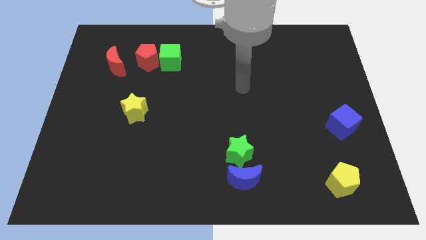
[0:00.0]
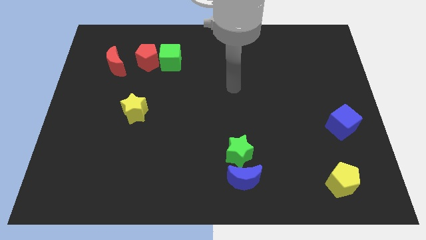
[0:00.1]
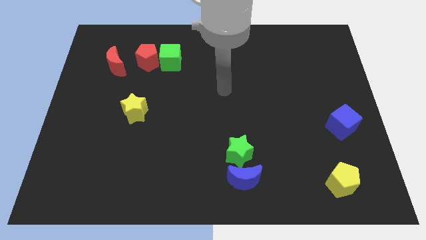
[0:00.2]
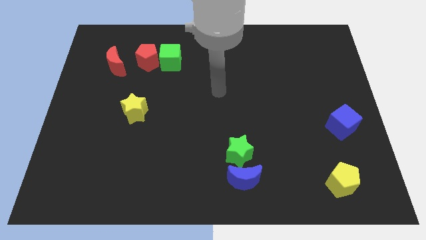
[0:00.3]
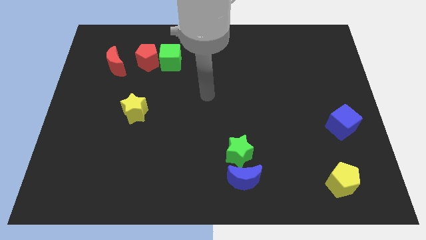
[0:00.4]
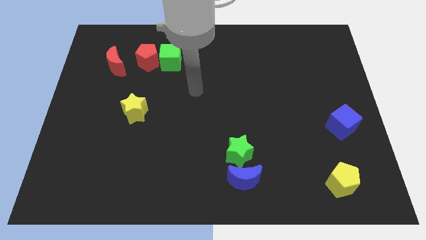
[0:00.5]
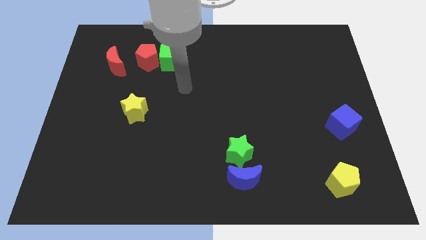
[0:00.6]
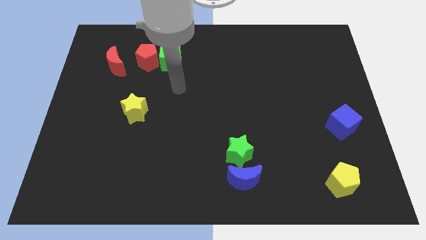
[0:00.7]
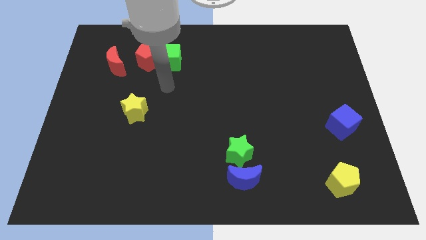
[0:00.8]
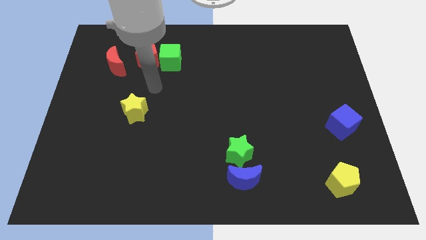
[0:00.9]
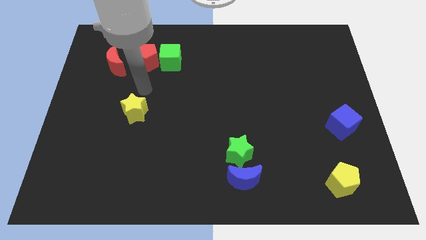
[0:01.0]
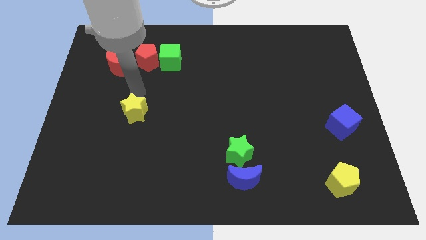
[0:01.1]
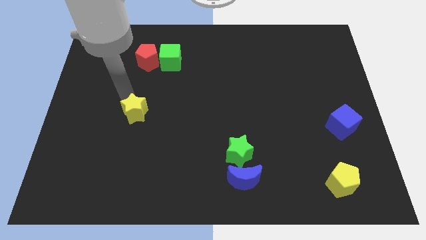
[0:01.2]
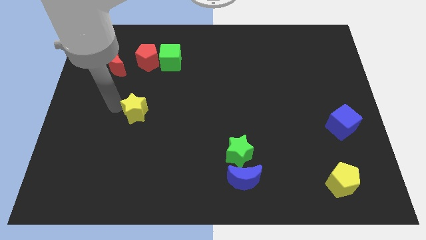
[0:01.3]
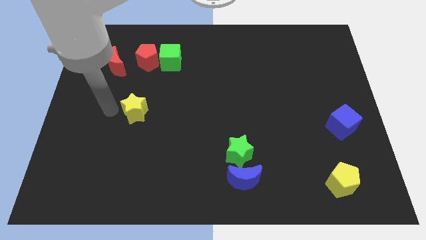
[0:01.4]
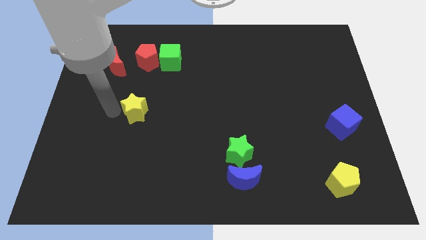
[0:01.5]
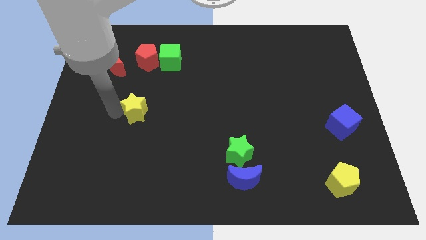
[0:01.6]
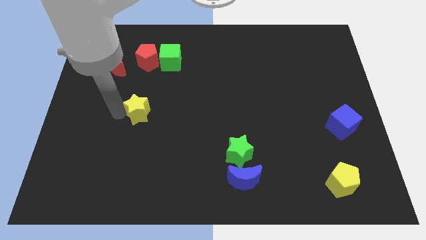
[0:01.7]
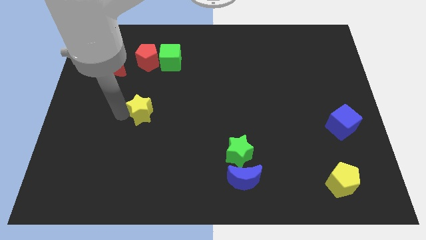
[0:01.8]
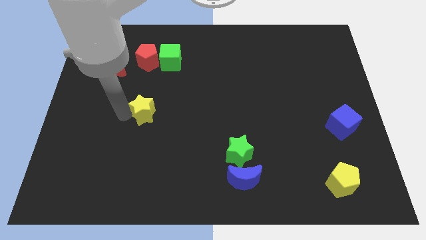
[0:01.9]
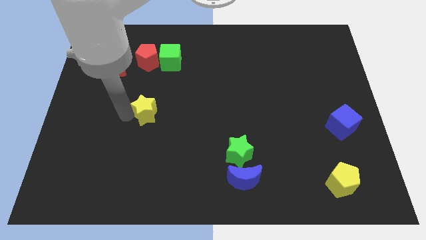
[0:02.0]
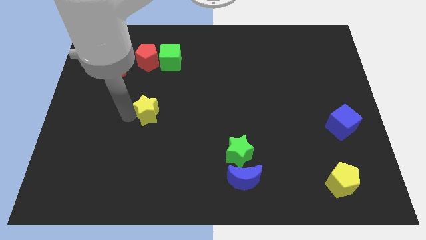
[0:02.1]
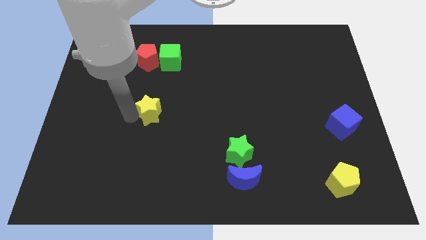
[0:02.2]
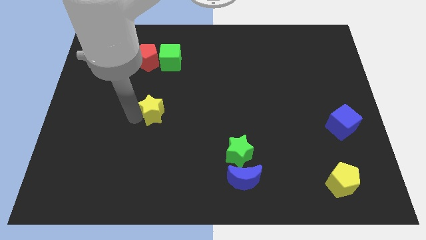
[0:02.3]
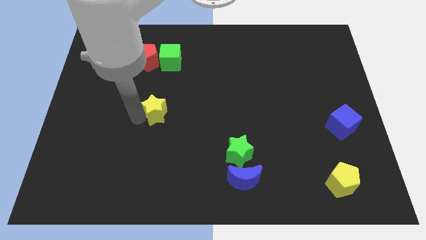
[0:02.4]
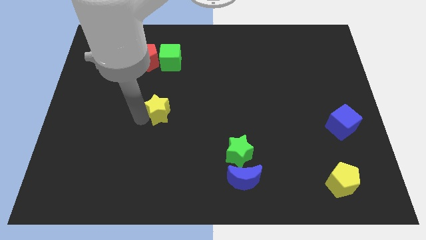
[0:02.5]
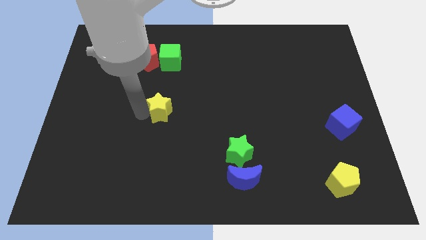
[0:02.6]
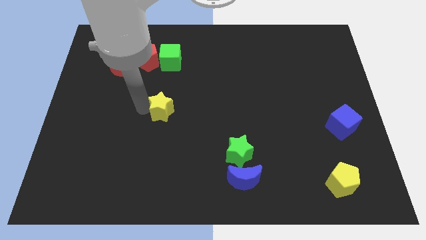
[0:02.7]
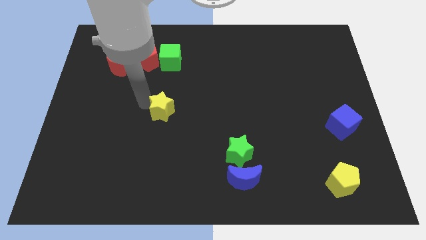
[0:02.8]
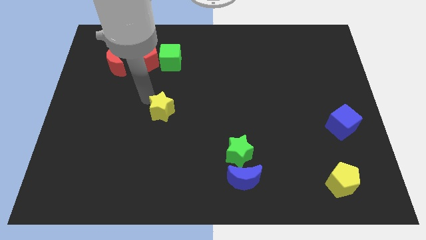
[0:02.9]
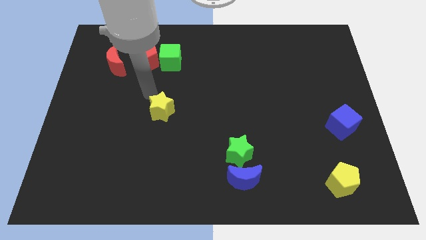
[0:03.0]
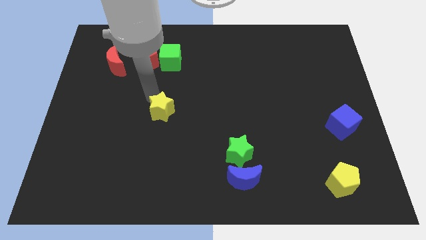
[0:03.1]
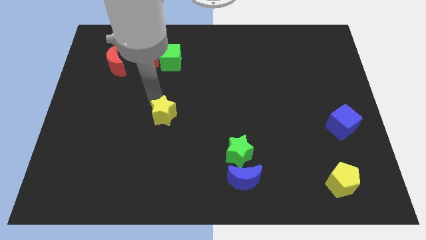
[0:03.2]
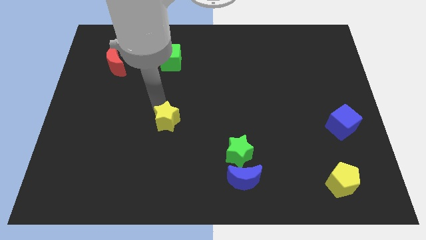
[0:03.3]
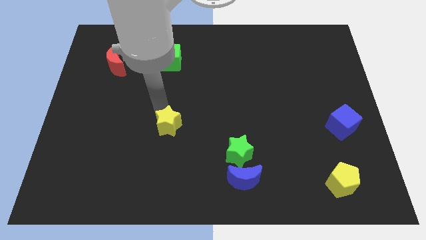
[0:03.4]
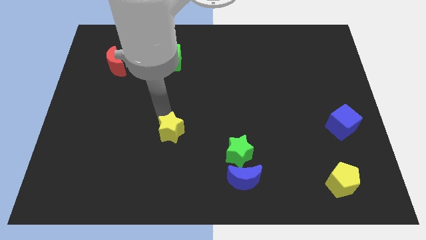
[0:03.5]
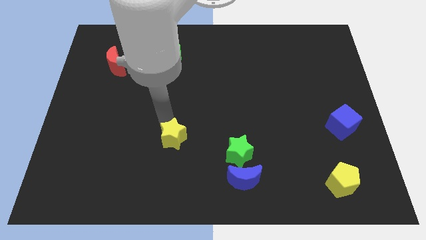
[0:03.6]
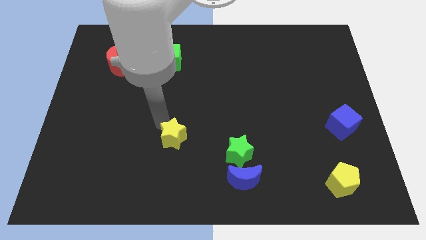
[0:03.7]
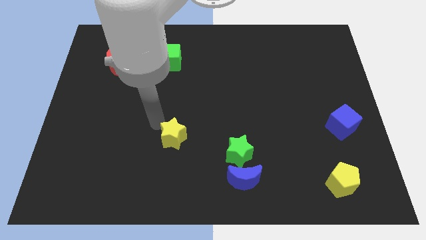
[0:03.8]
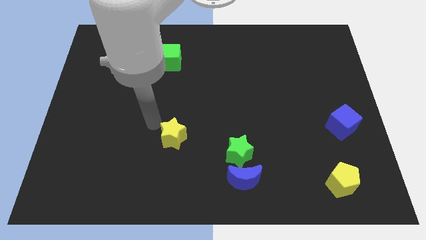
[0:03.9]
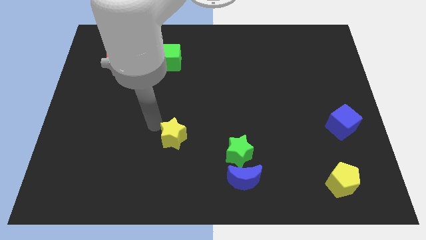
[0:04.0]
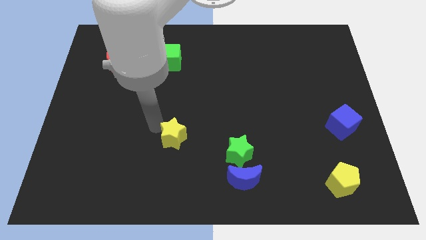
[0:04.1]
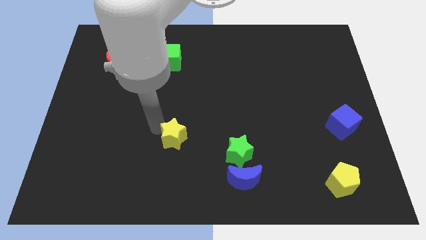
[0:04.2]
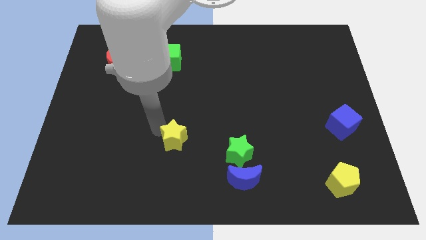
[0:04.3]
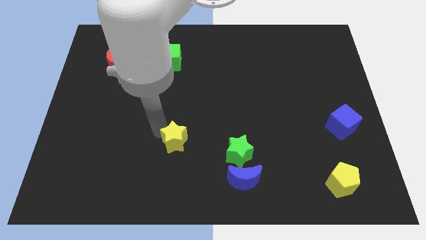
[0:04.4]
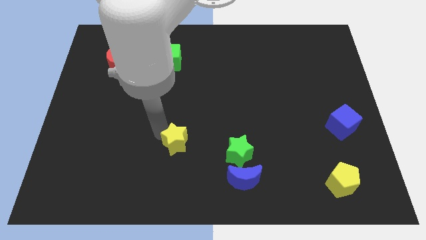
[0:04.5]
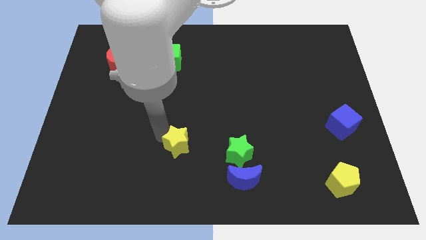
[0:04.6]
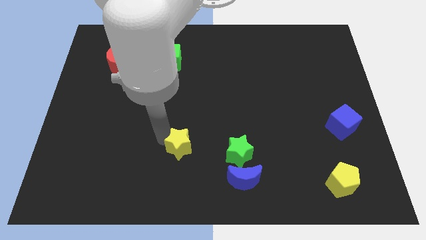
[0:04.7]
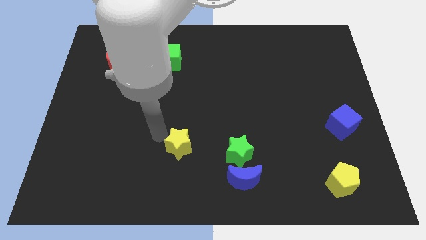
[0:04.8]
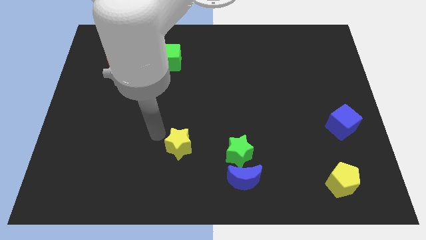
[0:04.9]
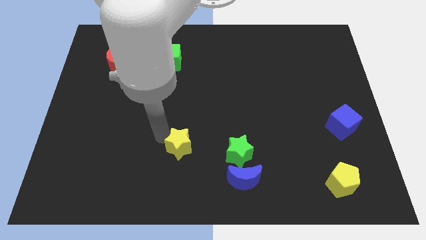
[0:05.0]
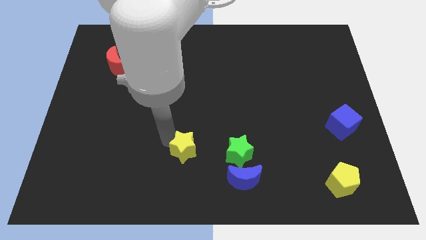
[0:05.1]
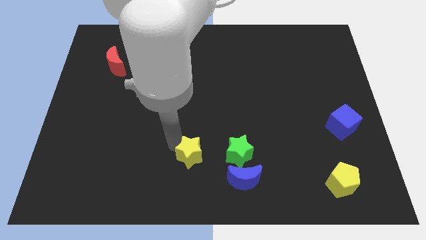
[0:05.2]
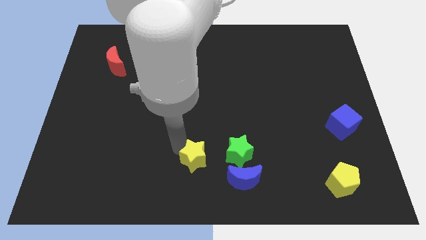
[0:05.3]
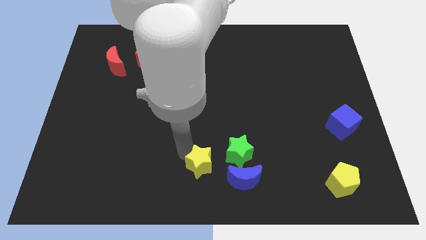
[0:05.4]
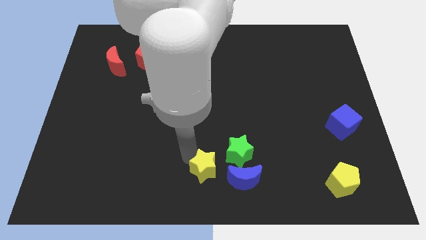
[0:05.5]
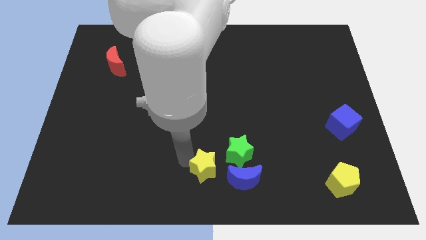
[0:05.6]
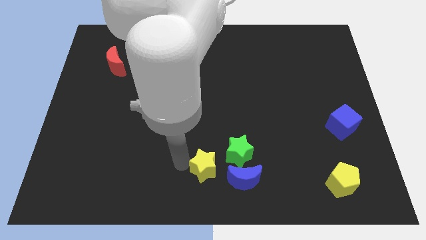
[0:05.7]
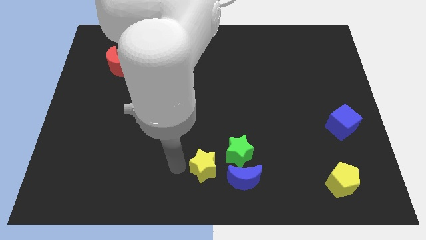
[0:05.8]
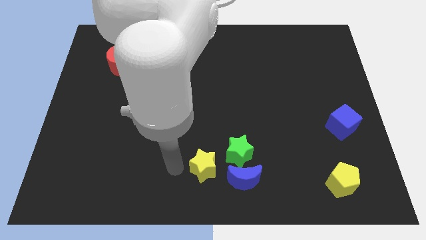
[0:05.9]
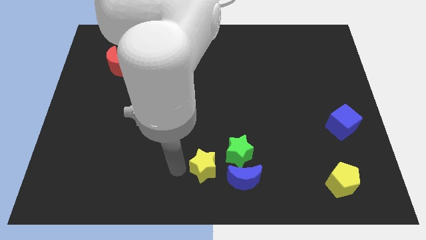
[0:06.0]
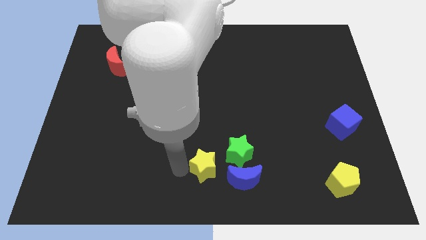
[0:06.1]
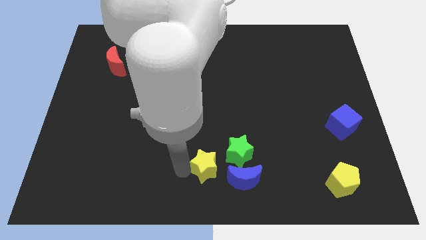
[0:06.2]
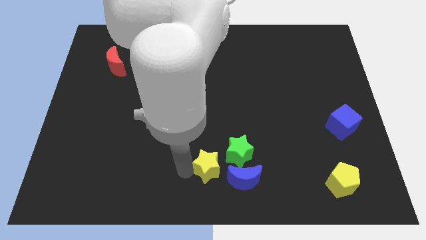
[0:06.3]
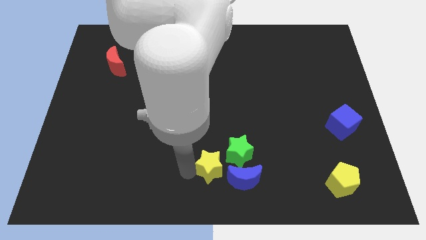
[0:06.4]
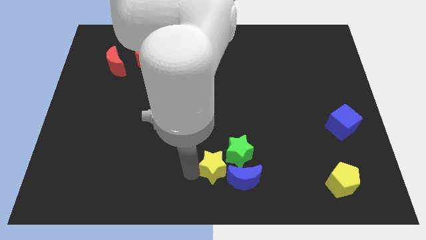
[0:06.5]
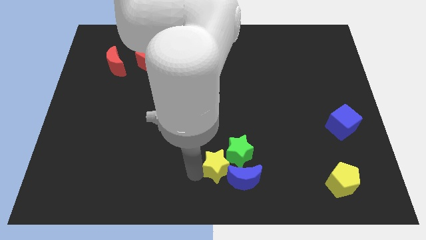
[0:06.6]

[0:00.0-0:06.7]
push the yellow star next to the blue moon

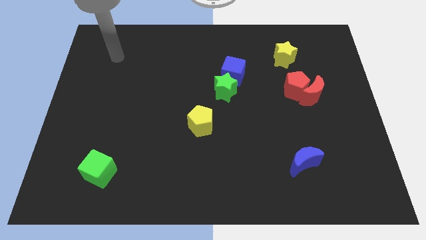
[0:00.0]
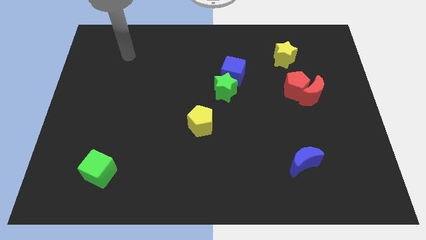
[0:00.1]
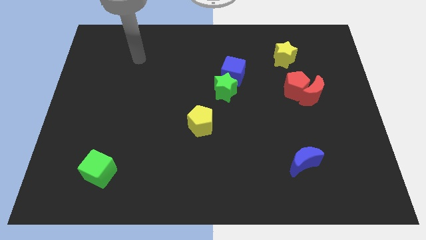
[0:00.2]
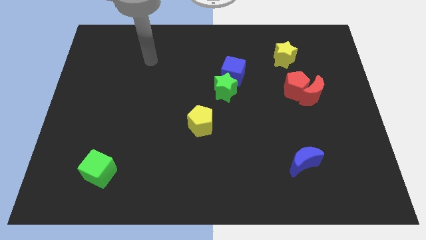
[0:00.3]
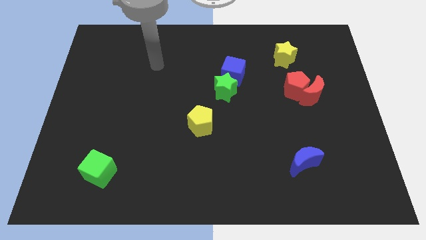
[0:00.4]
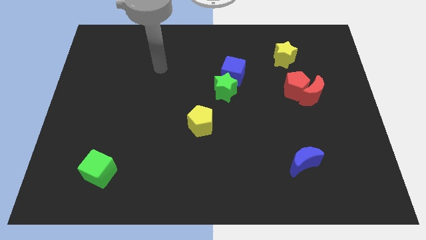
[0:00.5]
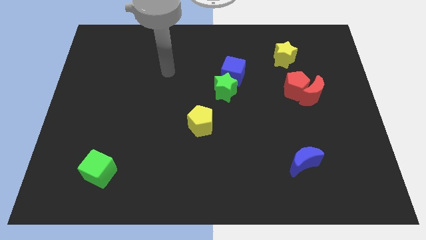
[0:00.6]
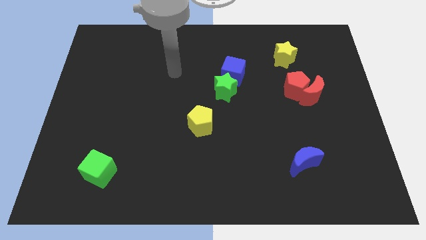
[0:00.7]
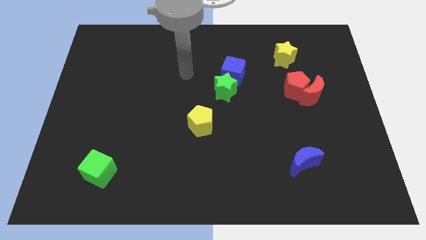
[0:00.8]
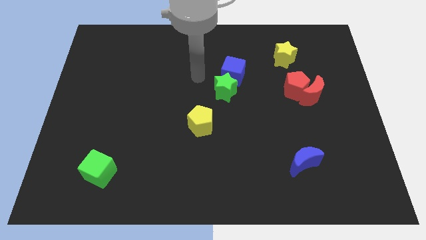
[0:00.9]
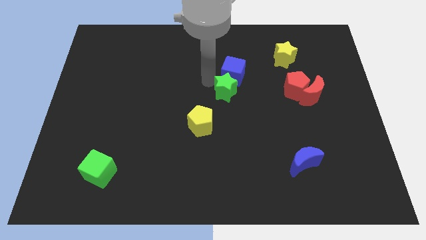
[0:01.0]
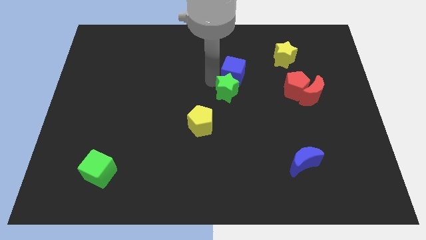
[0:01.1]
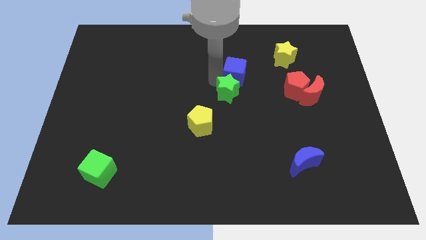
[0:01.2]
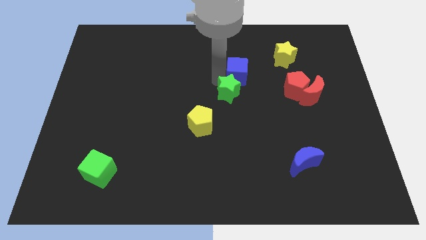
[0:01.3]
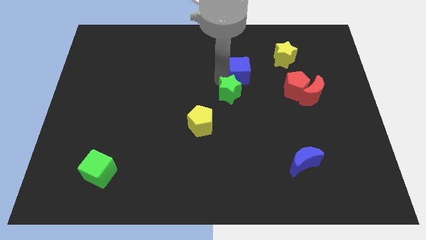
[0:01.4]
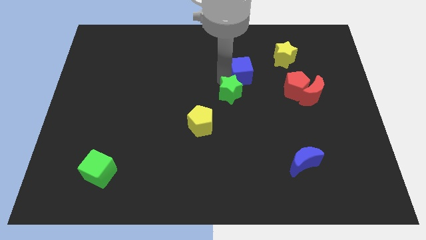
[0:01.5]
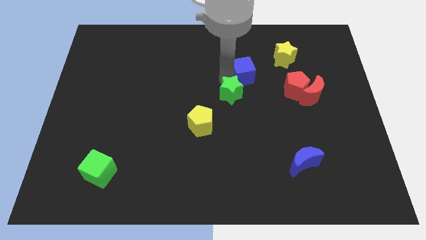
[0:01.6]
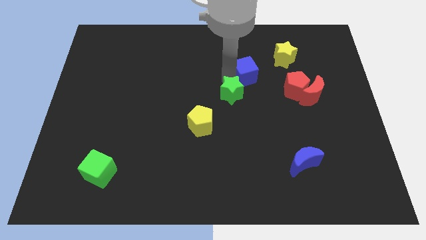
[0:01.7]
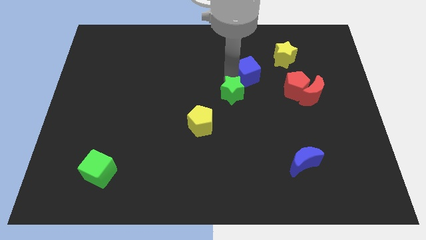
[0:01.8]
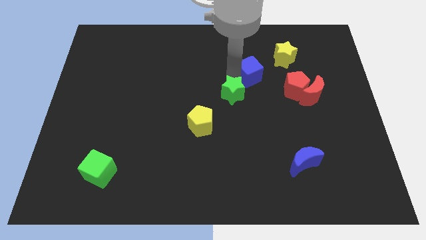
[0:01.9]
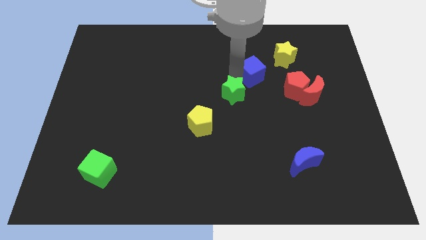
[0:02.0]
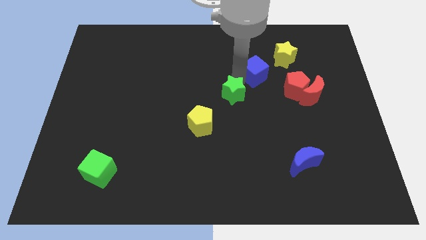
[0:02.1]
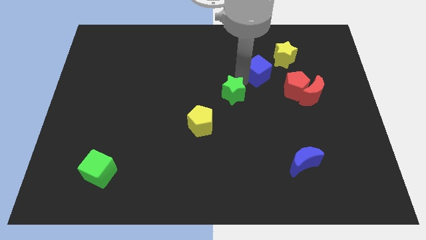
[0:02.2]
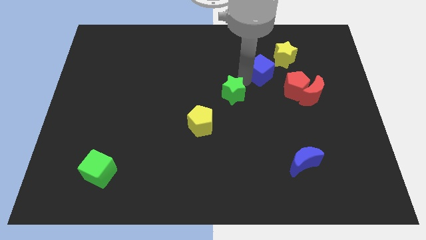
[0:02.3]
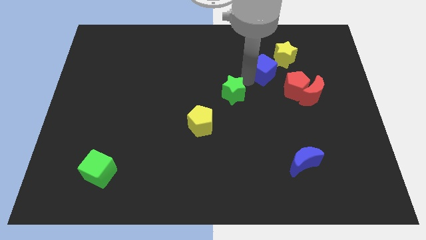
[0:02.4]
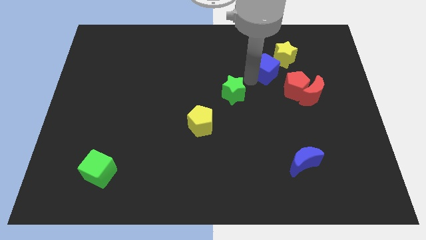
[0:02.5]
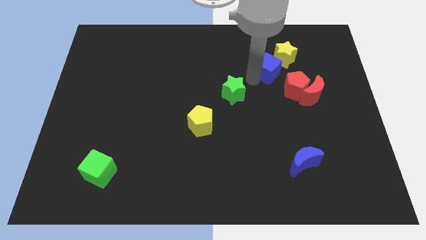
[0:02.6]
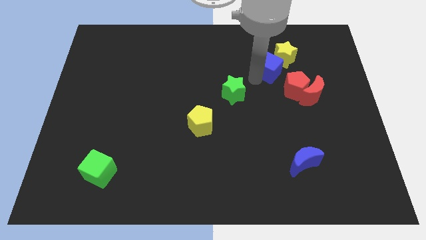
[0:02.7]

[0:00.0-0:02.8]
slide the blue cube close to the yellow star
